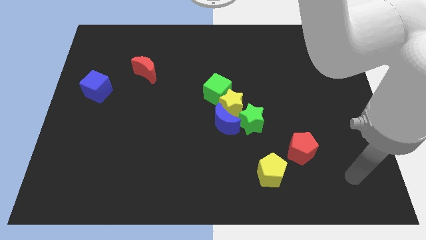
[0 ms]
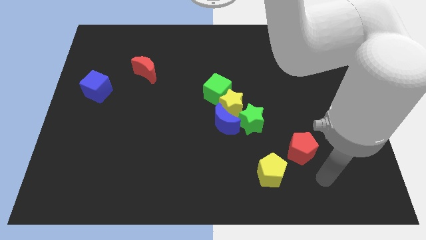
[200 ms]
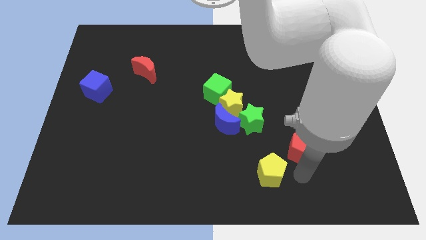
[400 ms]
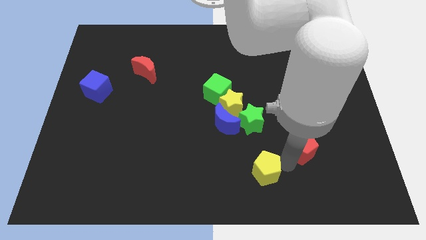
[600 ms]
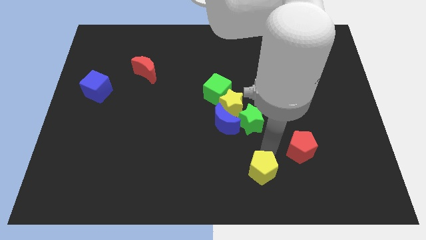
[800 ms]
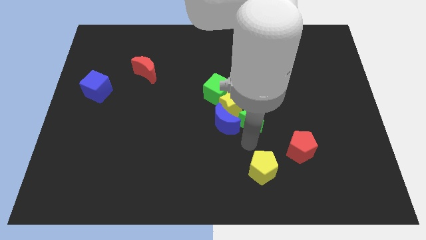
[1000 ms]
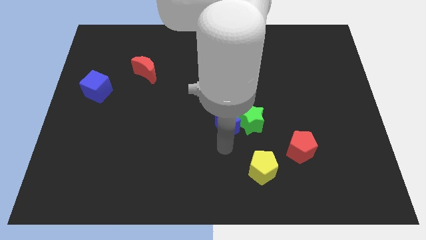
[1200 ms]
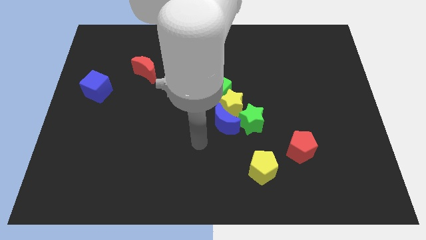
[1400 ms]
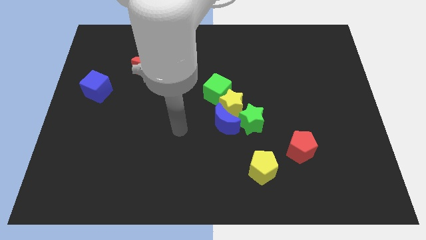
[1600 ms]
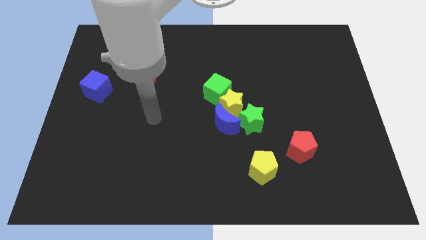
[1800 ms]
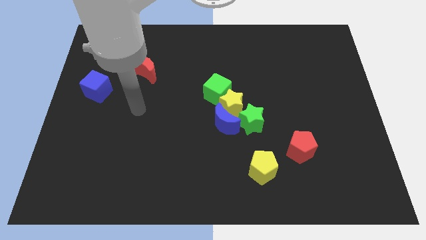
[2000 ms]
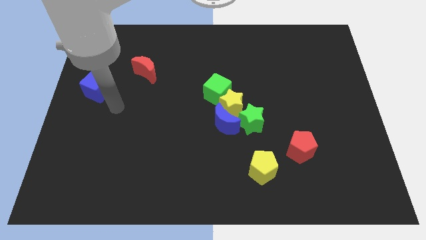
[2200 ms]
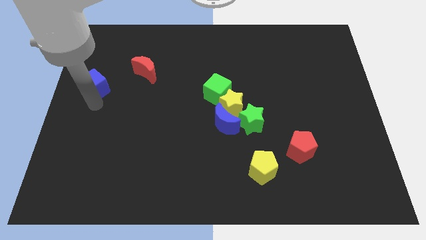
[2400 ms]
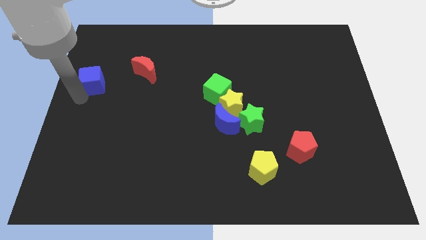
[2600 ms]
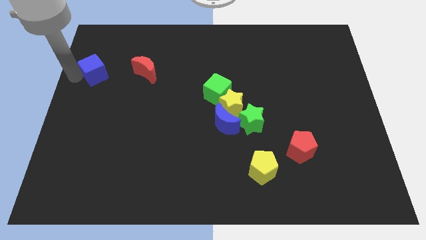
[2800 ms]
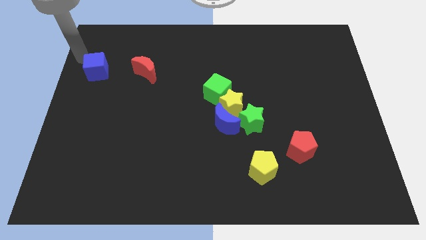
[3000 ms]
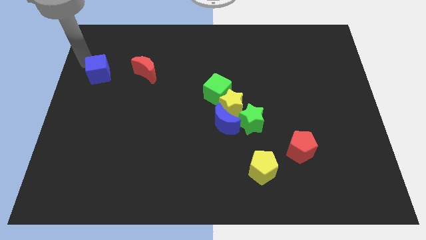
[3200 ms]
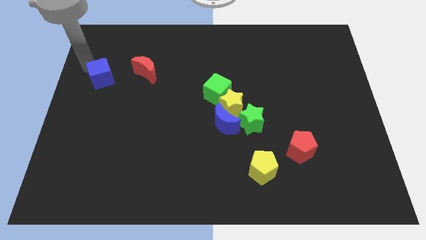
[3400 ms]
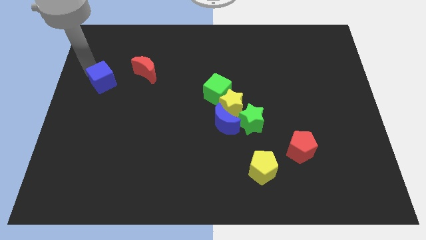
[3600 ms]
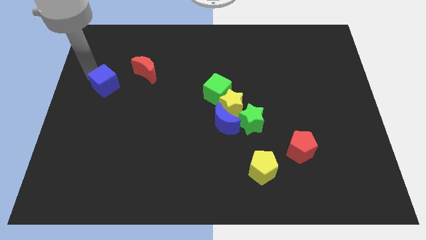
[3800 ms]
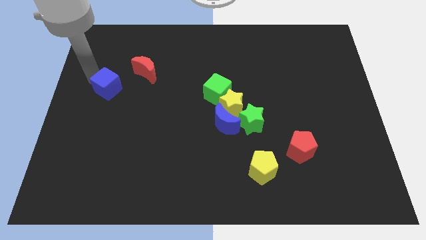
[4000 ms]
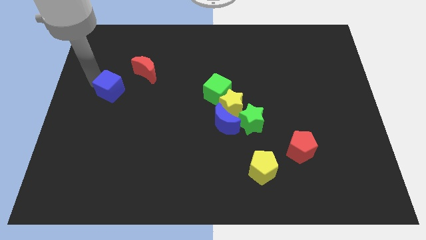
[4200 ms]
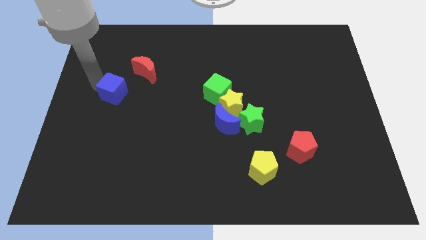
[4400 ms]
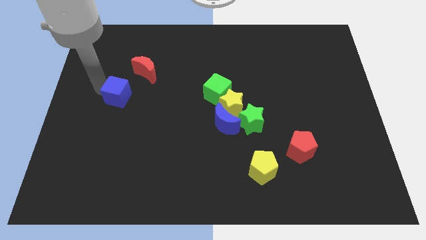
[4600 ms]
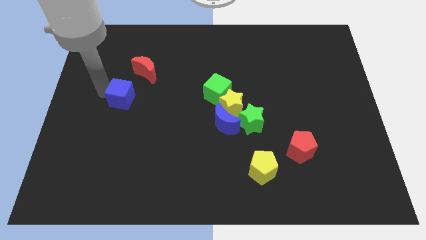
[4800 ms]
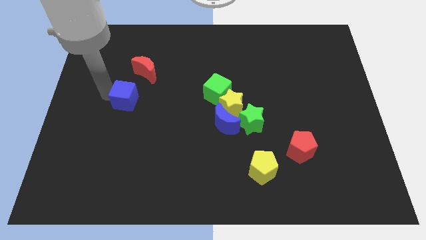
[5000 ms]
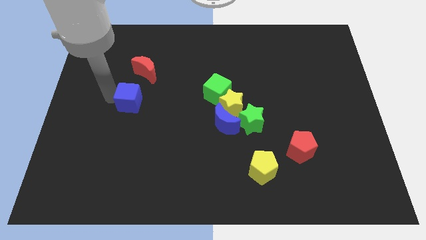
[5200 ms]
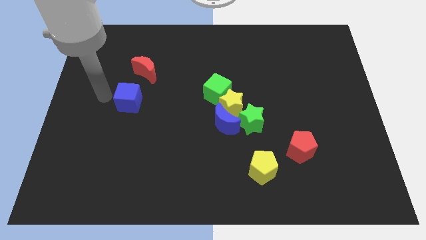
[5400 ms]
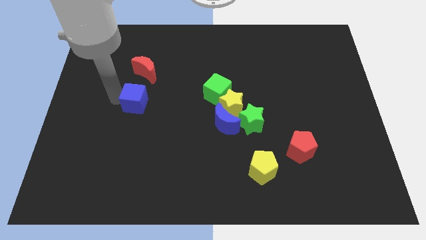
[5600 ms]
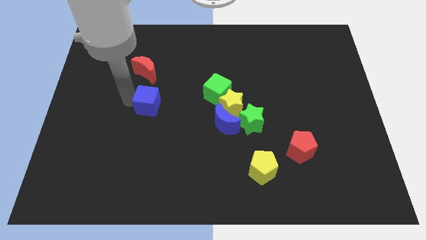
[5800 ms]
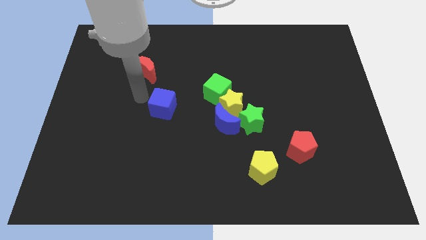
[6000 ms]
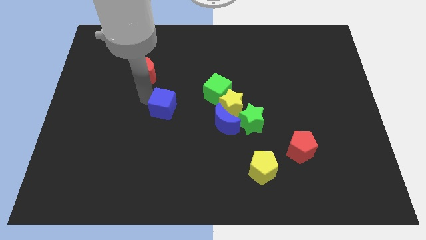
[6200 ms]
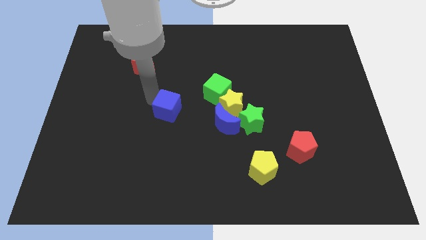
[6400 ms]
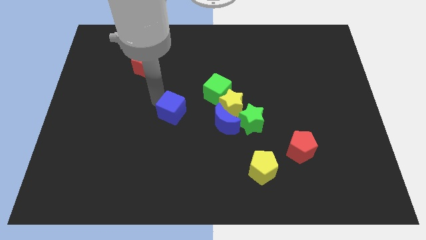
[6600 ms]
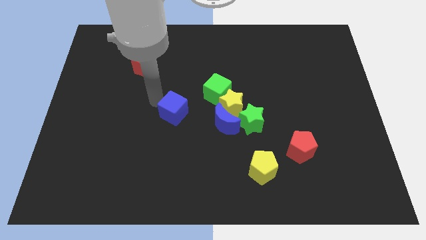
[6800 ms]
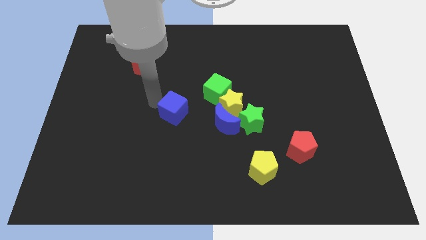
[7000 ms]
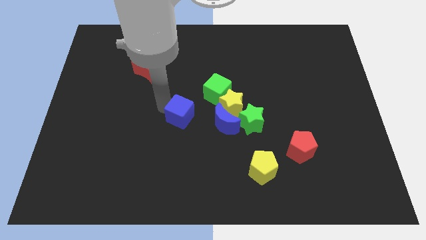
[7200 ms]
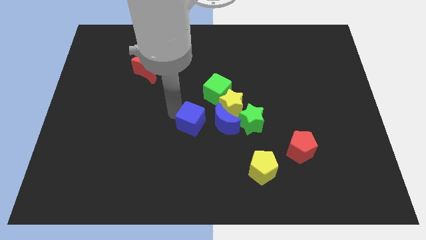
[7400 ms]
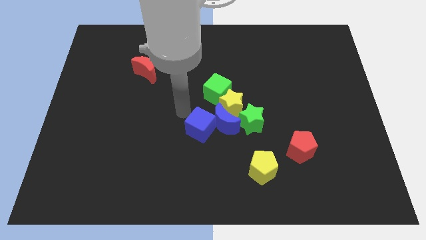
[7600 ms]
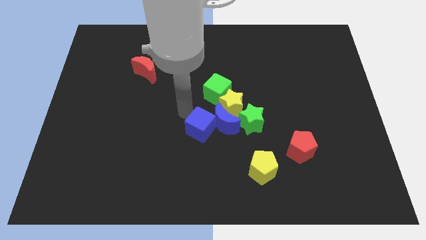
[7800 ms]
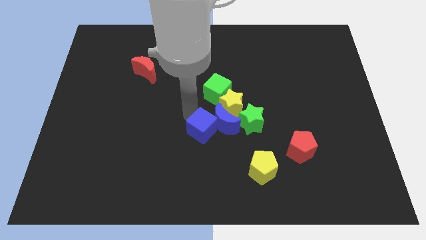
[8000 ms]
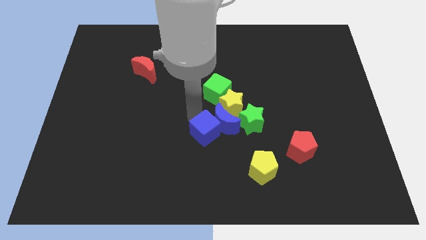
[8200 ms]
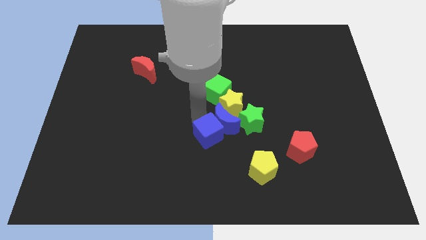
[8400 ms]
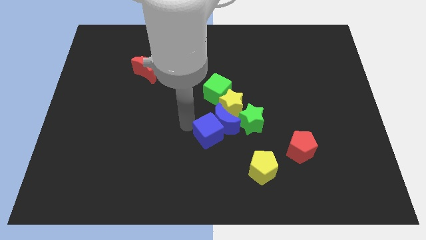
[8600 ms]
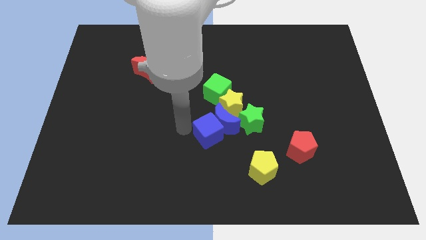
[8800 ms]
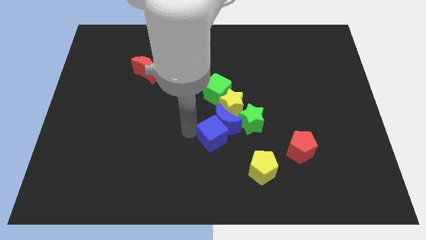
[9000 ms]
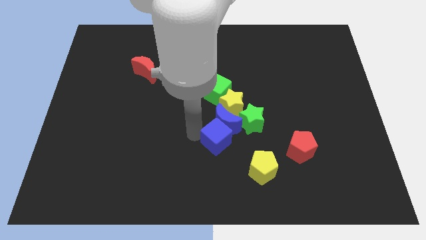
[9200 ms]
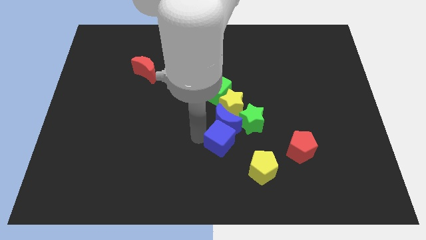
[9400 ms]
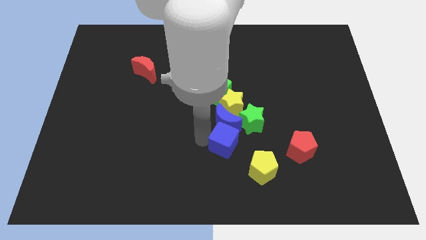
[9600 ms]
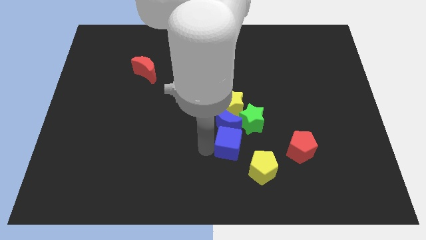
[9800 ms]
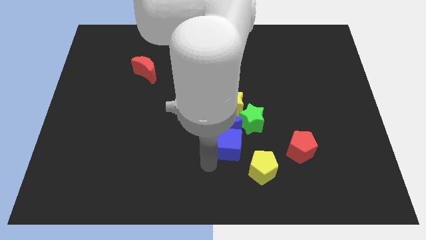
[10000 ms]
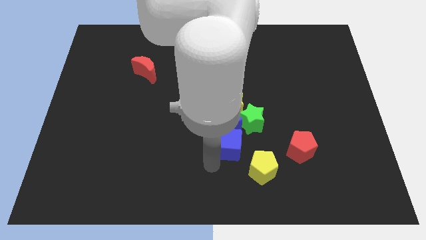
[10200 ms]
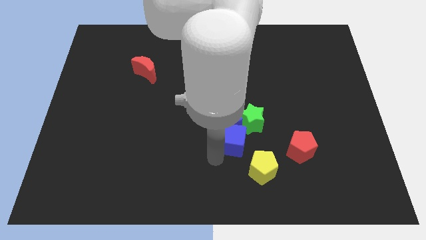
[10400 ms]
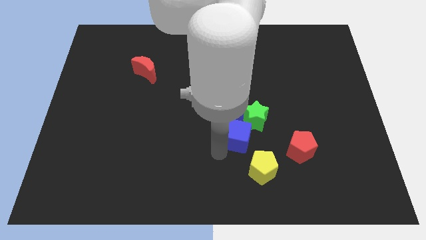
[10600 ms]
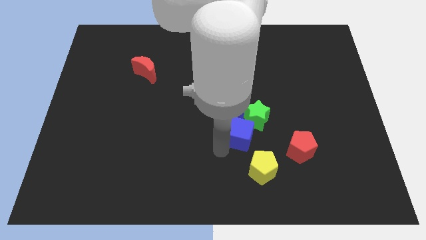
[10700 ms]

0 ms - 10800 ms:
move the blue cube towards the green star

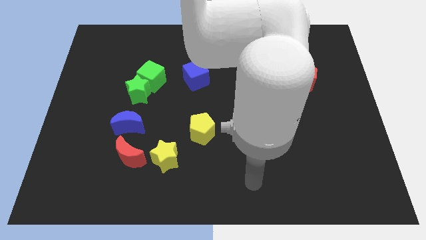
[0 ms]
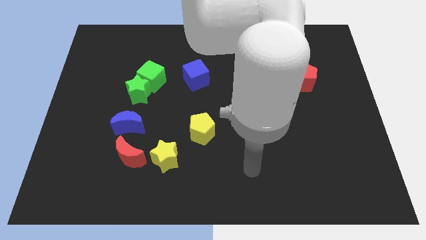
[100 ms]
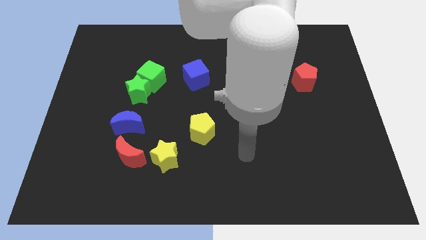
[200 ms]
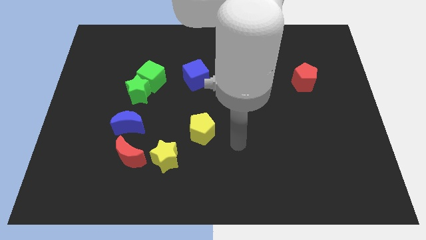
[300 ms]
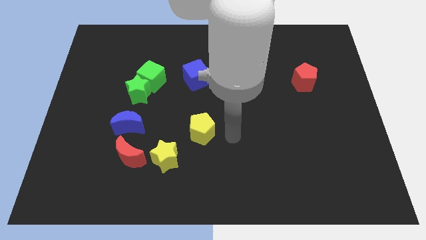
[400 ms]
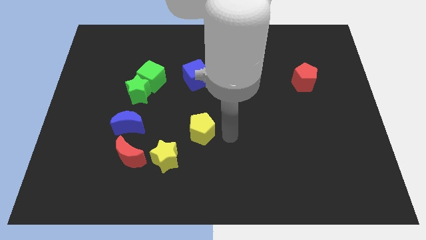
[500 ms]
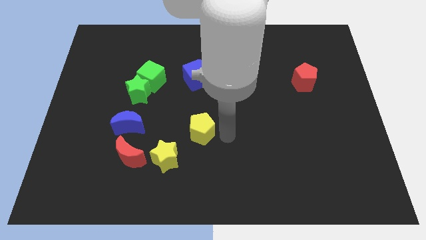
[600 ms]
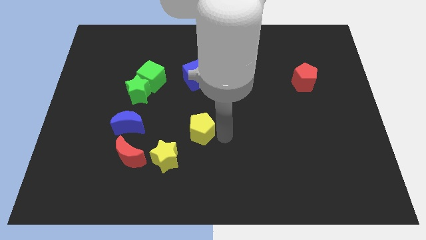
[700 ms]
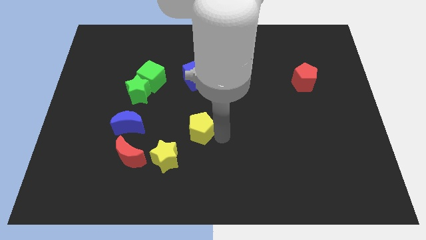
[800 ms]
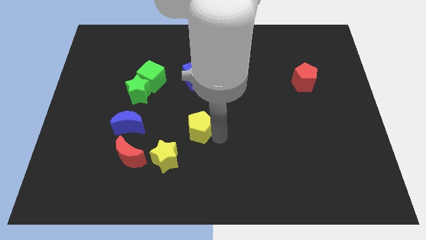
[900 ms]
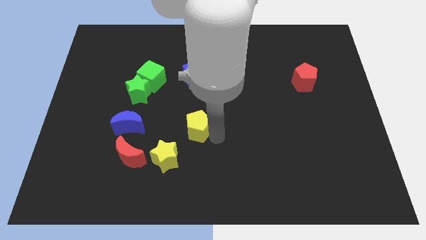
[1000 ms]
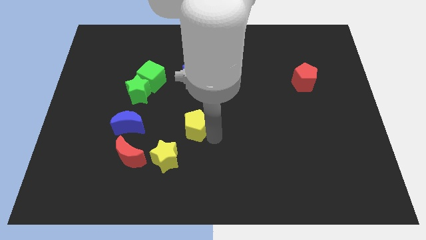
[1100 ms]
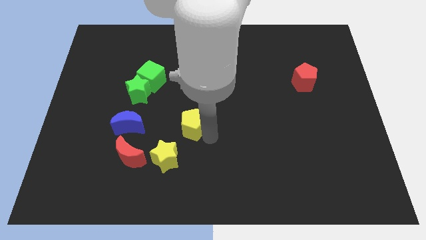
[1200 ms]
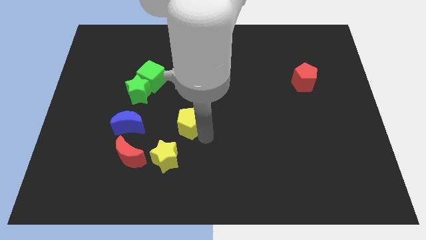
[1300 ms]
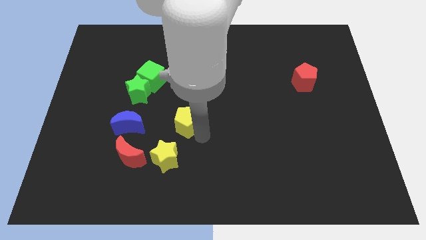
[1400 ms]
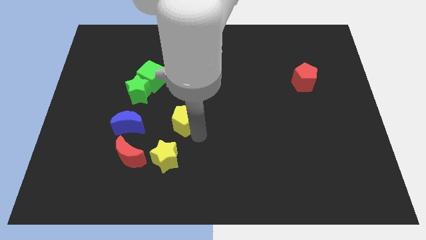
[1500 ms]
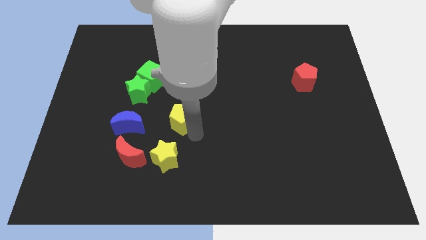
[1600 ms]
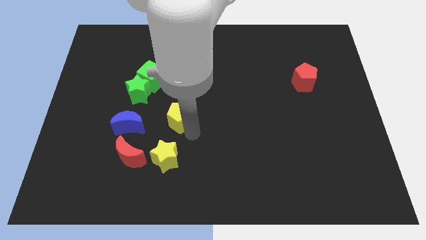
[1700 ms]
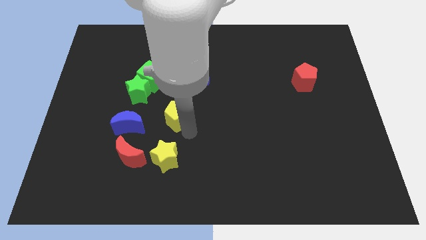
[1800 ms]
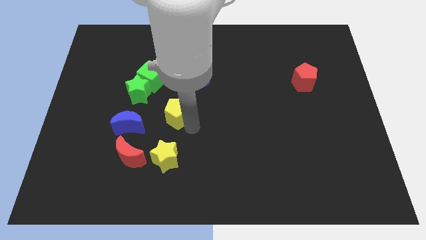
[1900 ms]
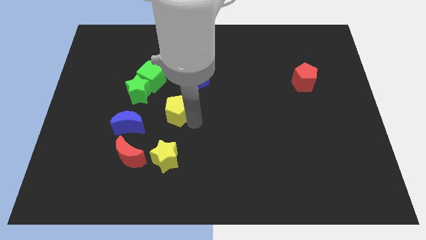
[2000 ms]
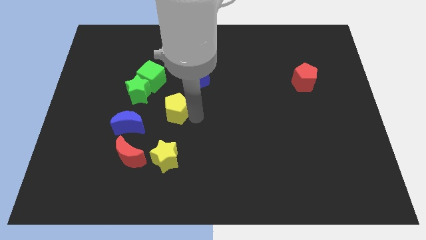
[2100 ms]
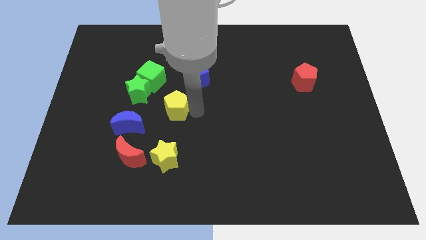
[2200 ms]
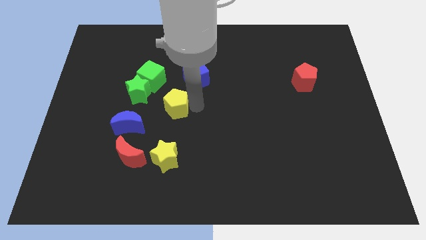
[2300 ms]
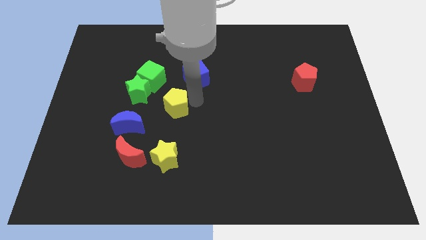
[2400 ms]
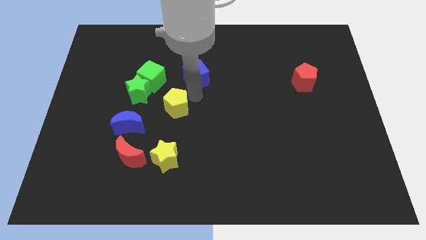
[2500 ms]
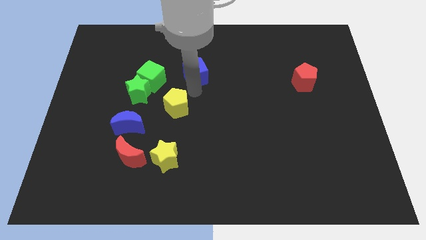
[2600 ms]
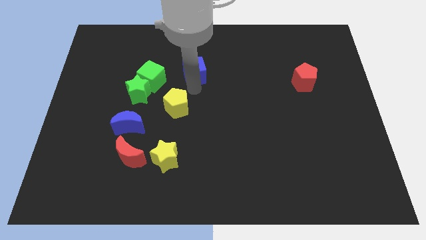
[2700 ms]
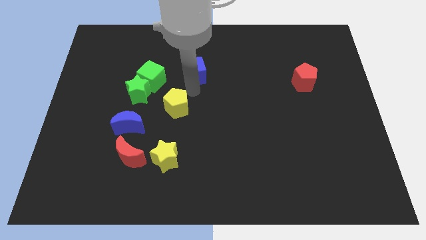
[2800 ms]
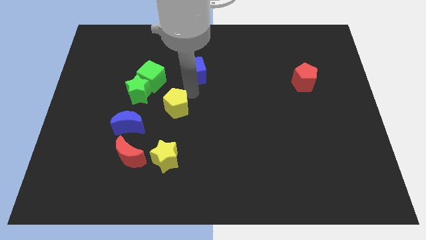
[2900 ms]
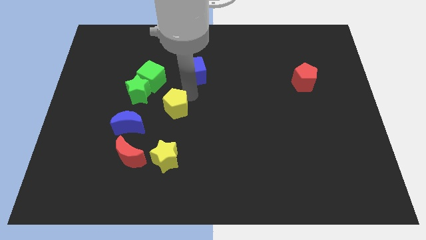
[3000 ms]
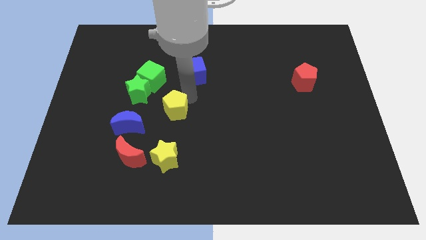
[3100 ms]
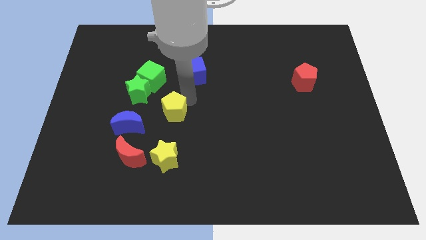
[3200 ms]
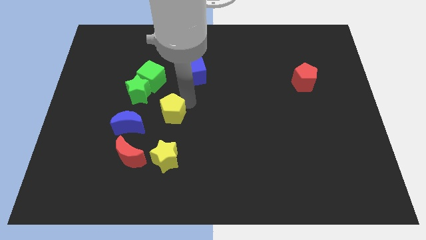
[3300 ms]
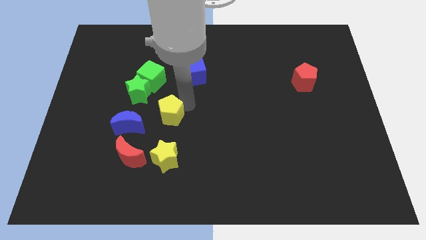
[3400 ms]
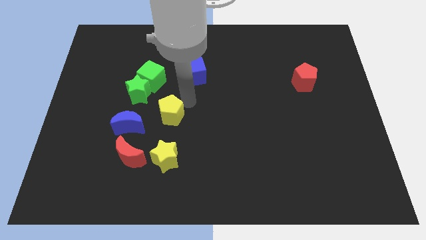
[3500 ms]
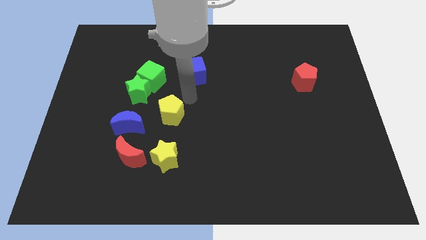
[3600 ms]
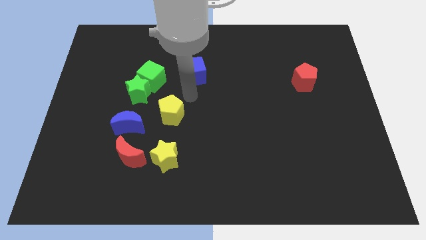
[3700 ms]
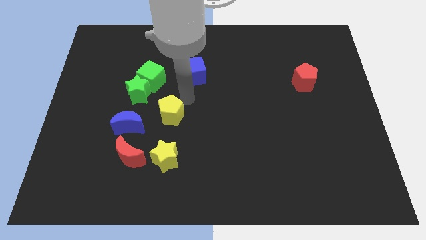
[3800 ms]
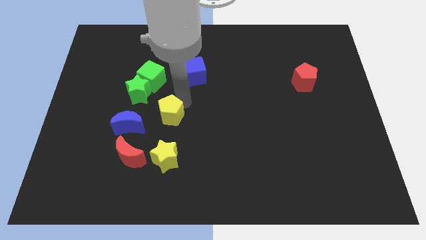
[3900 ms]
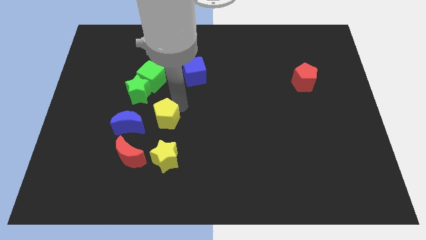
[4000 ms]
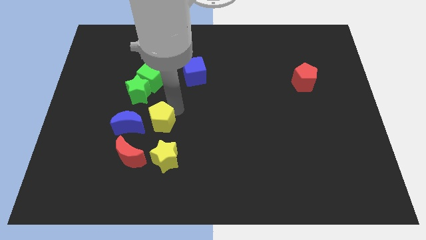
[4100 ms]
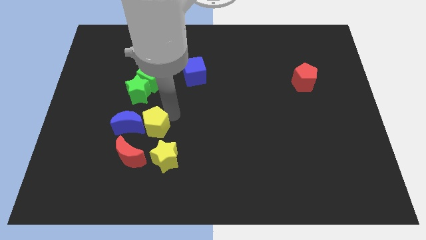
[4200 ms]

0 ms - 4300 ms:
move the yellow pentagon close to the blue moon
